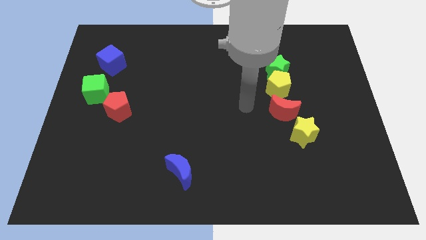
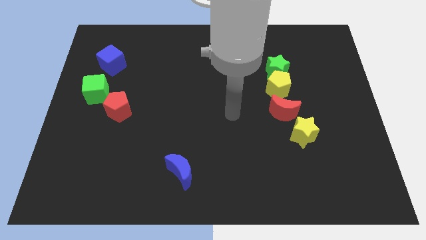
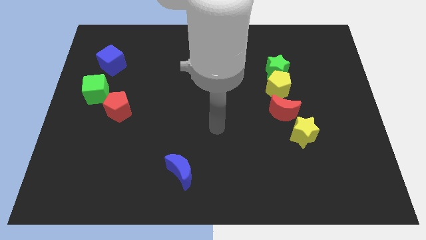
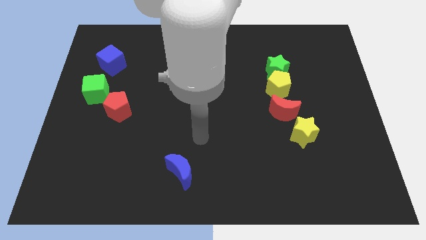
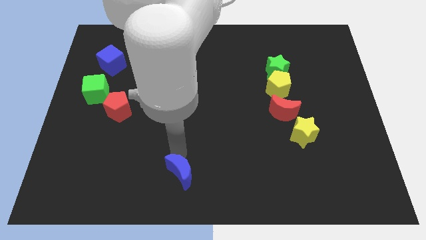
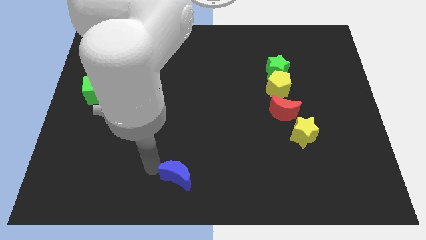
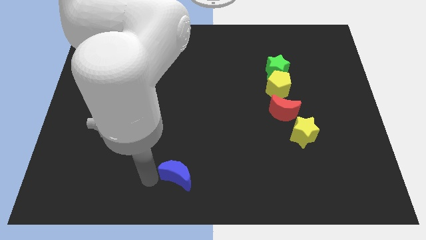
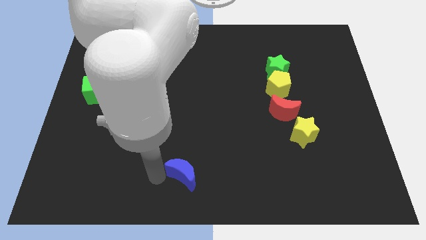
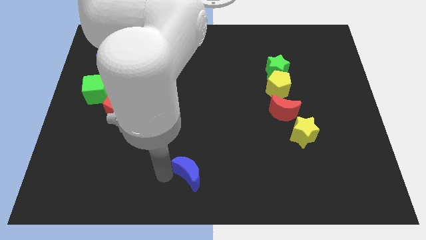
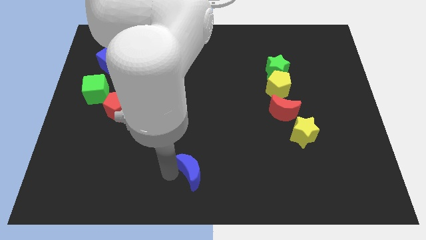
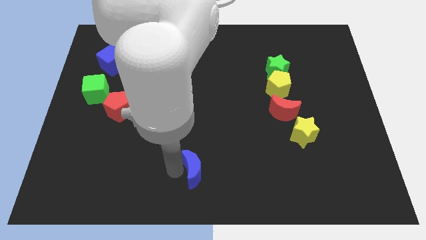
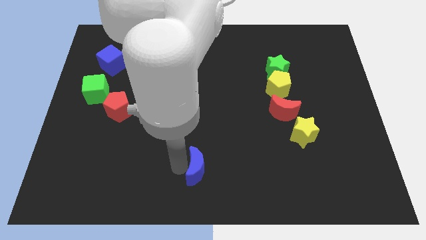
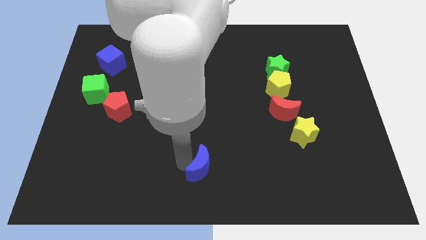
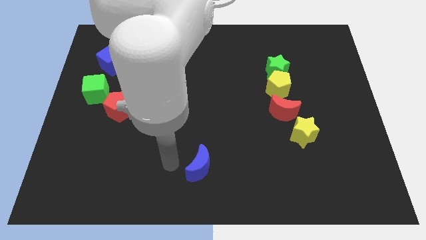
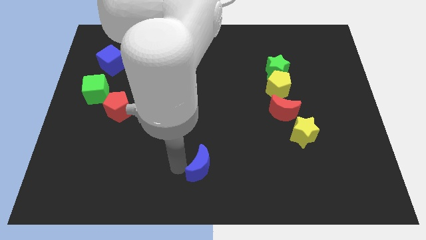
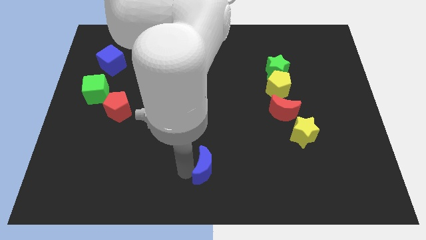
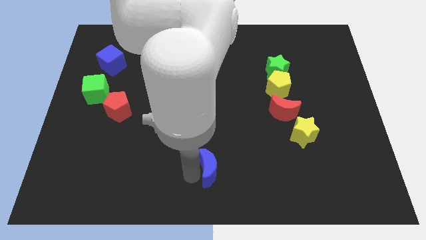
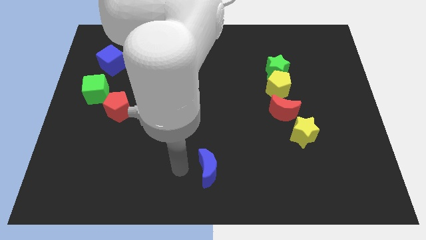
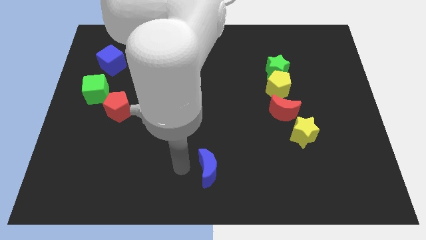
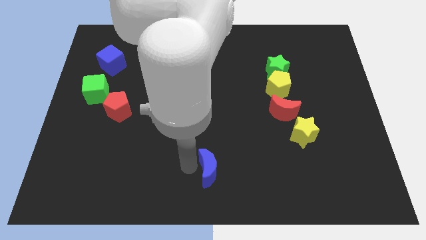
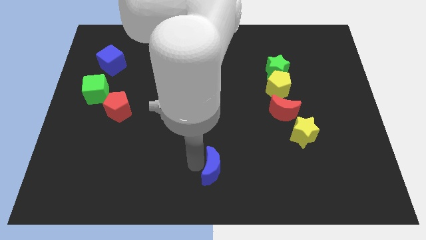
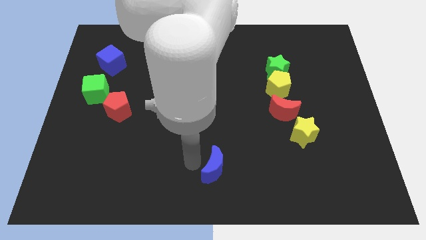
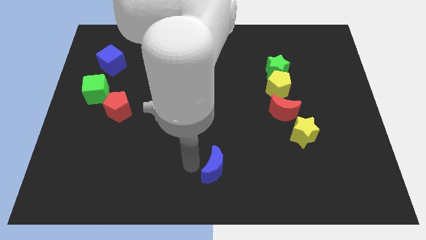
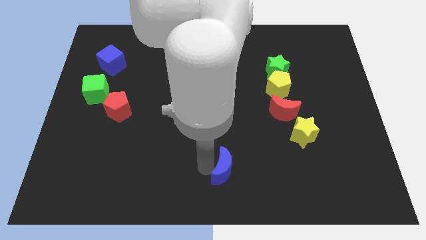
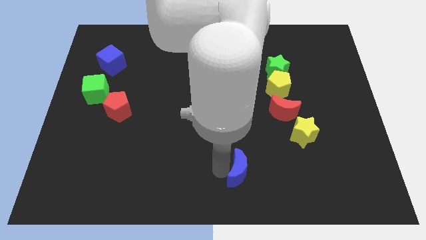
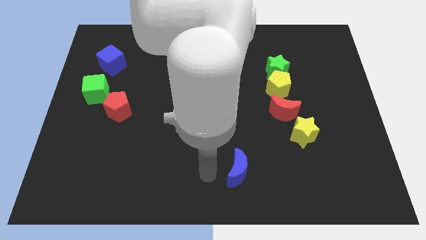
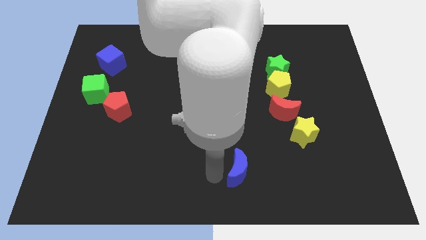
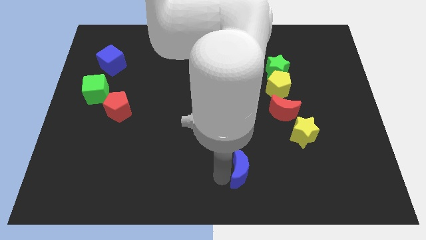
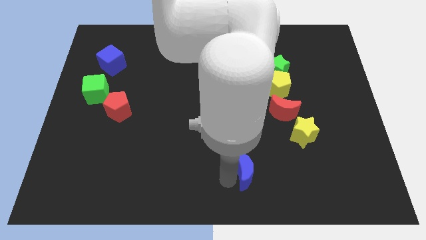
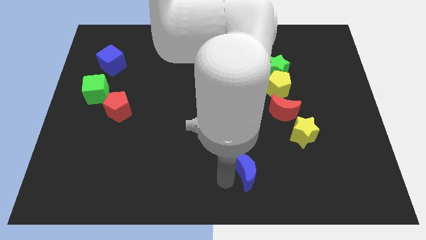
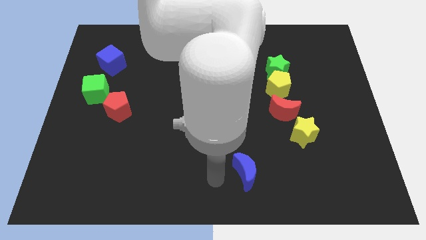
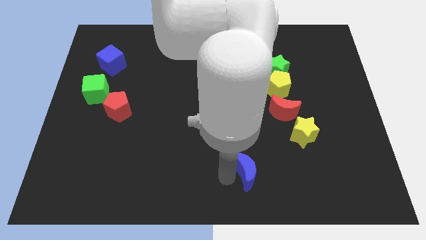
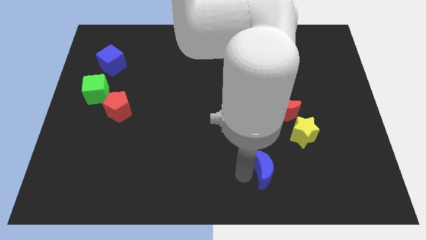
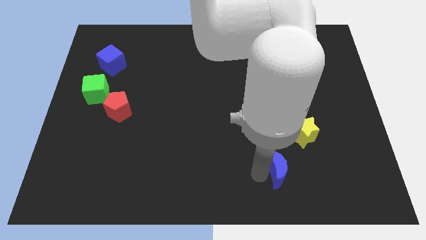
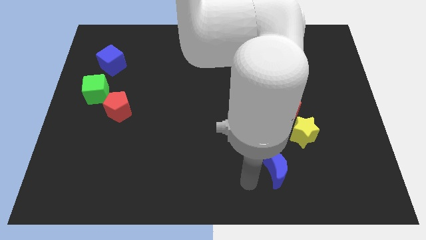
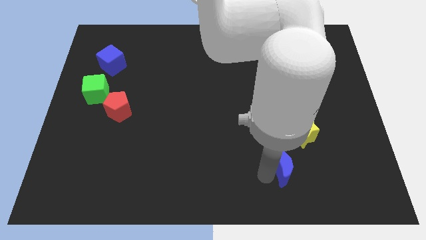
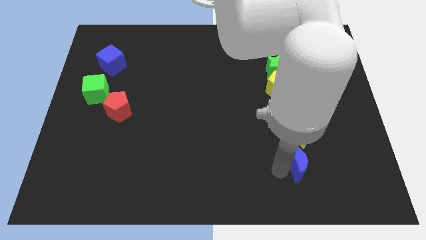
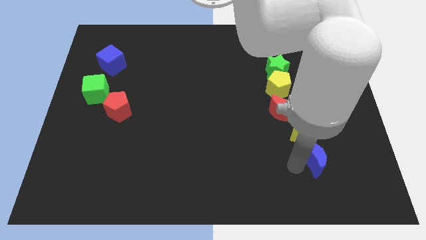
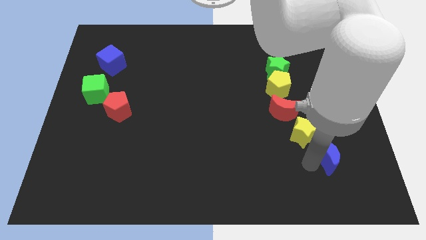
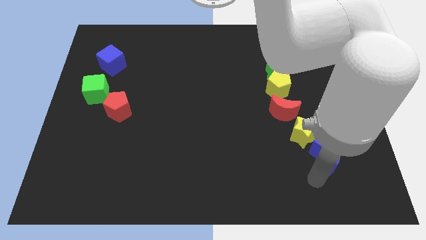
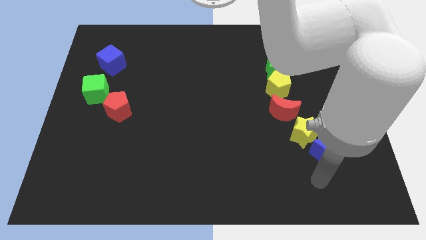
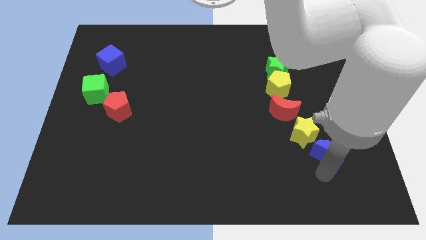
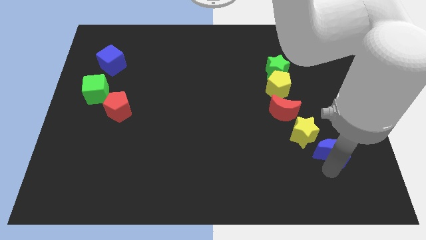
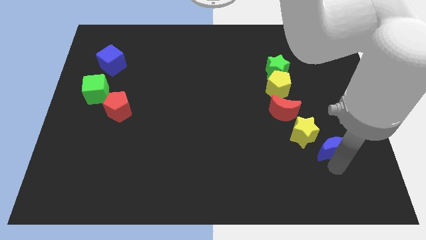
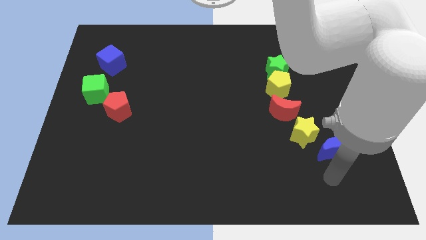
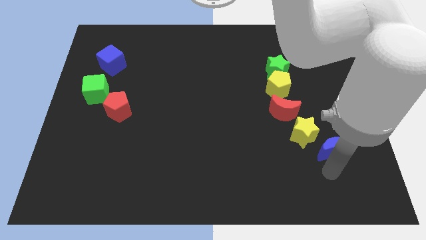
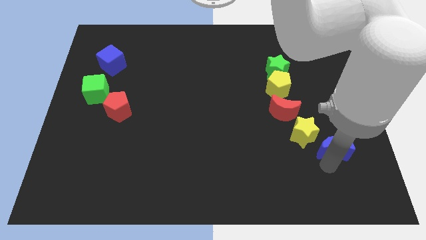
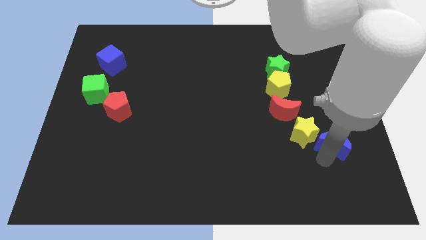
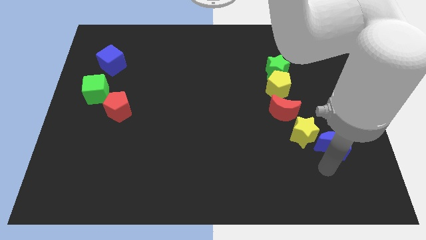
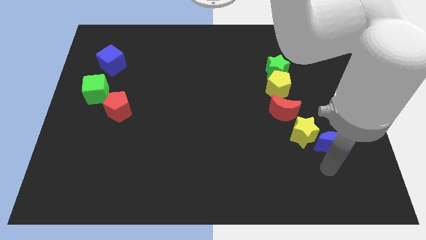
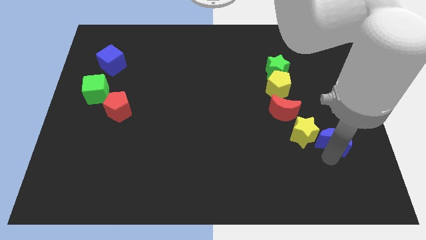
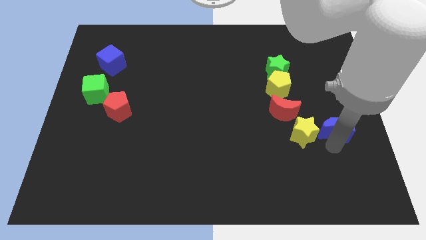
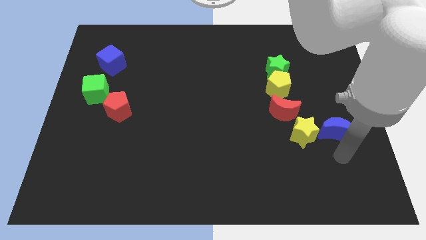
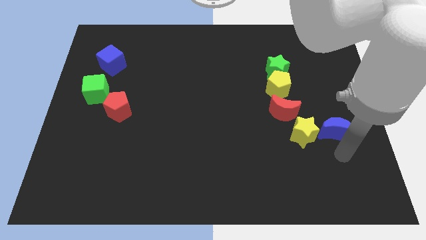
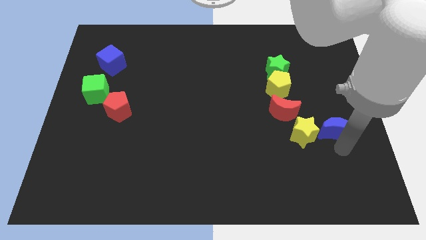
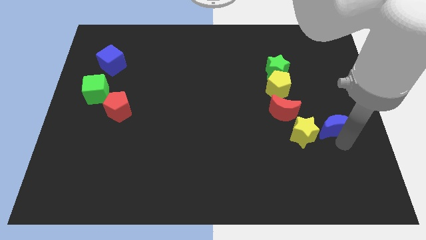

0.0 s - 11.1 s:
put the blue moon to the right of the red moon

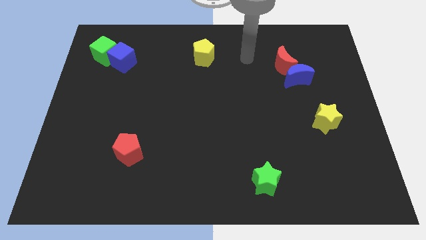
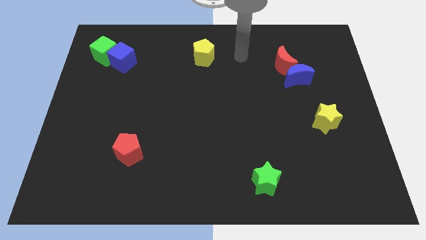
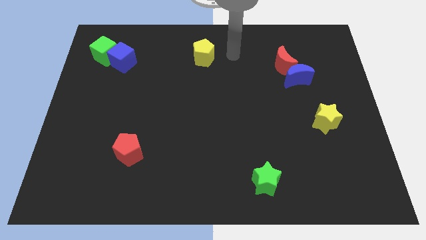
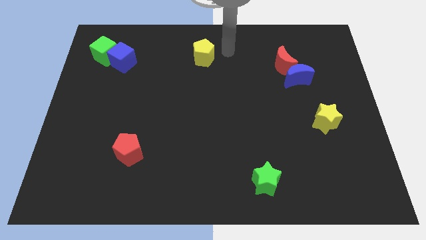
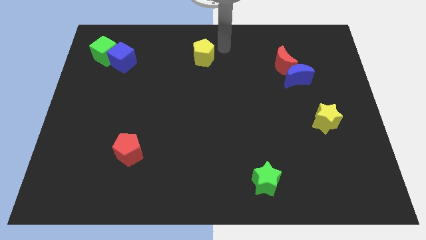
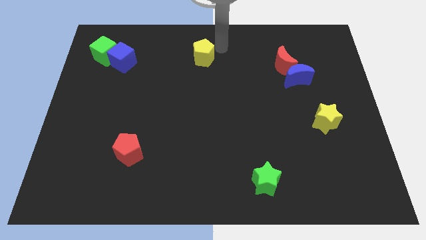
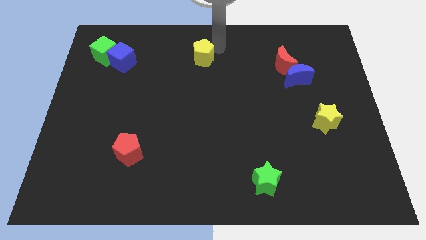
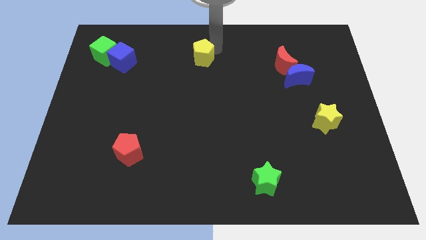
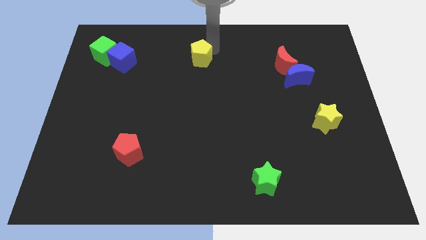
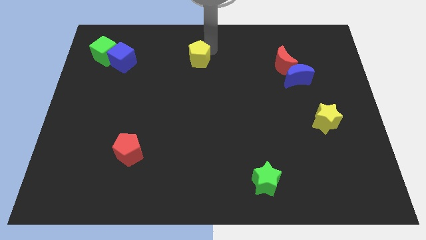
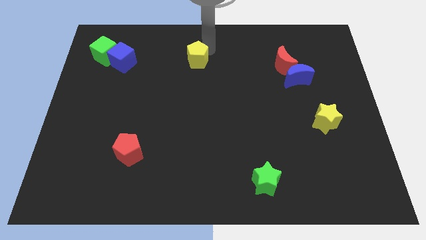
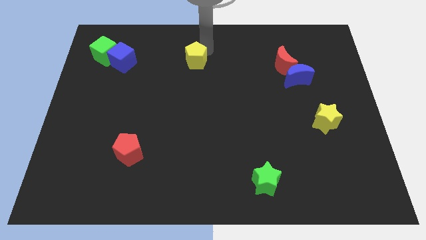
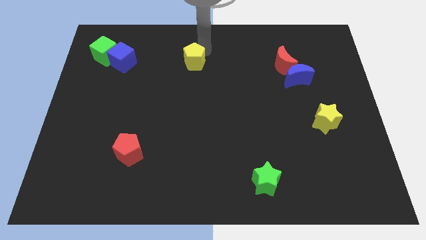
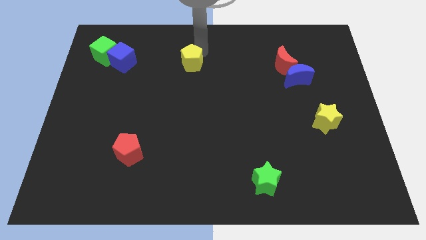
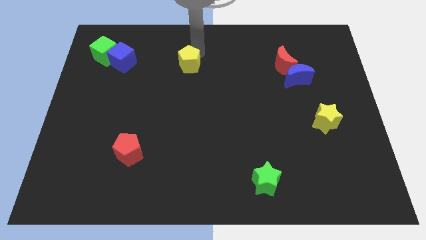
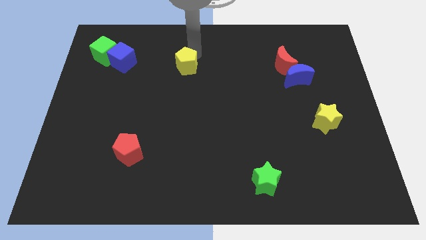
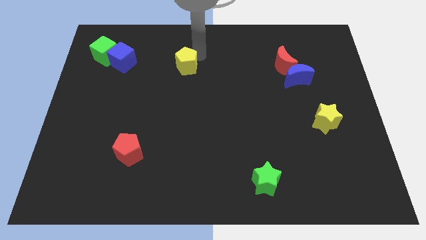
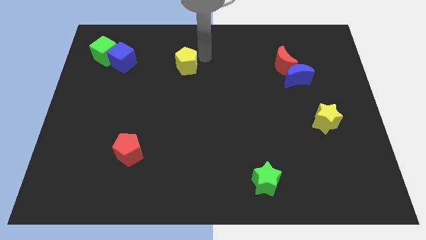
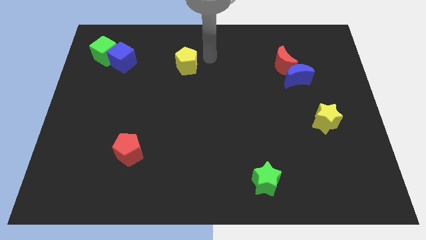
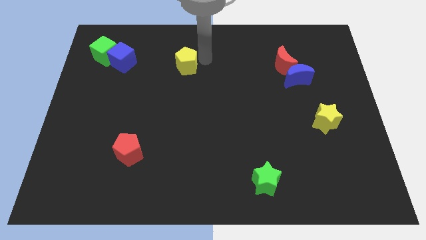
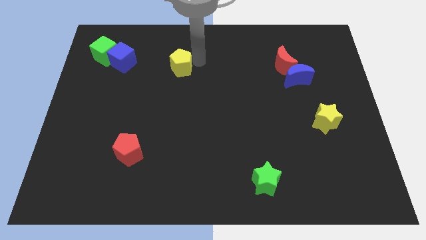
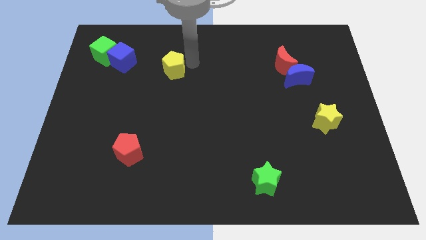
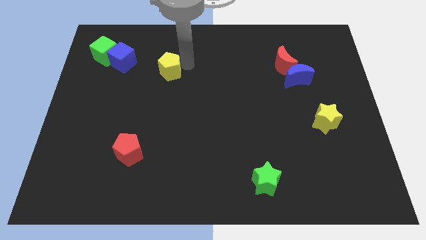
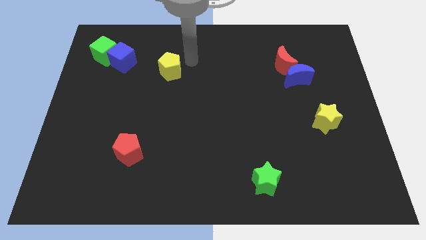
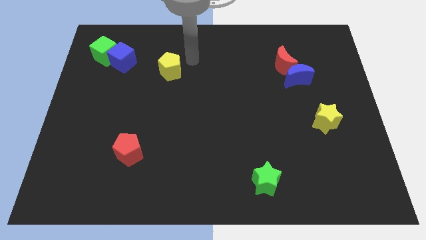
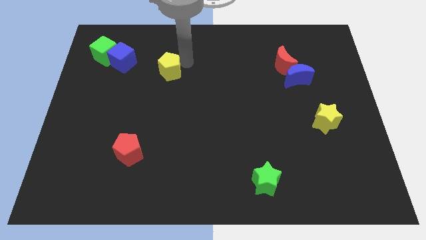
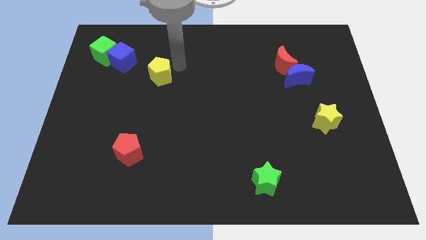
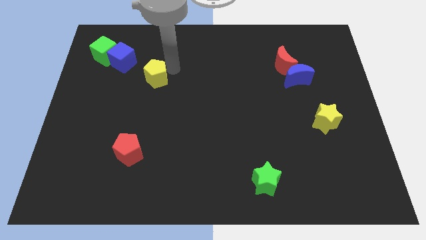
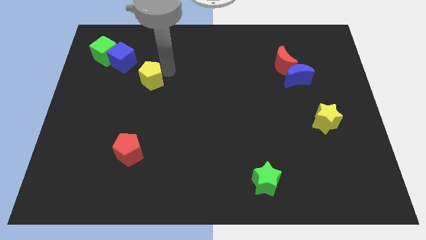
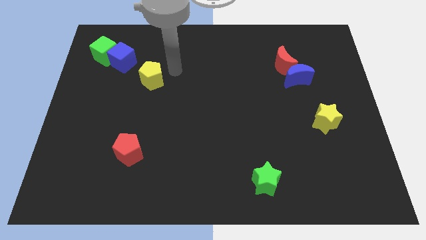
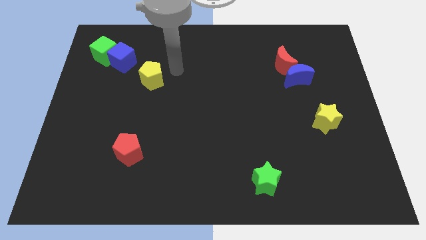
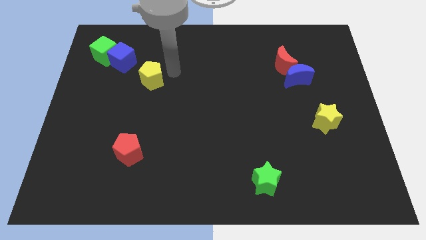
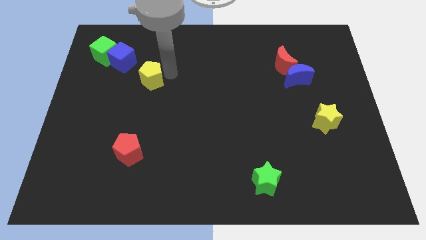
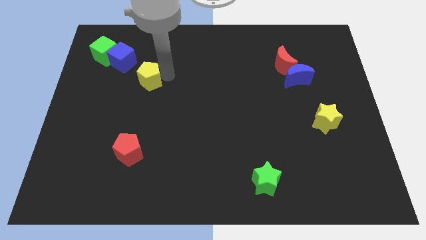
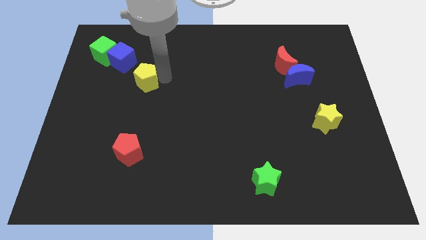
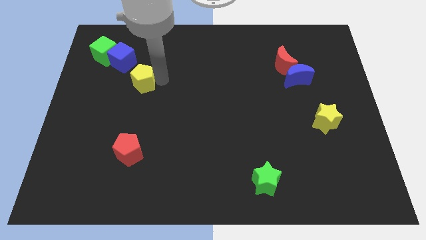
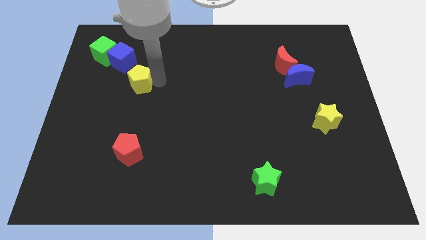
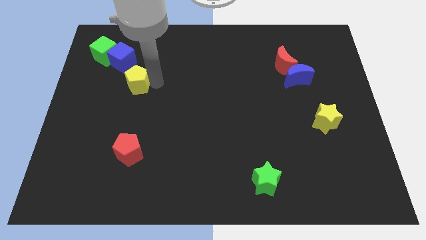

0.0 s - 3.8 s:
push the yellow pentagon below the blue cube
